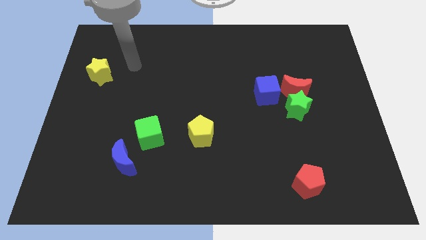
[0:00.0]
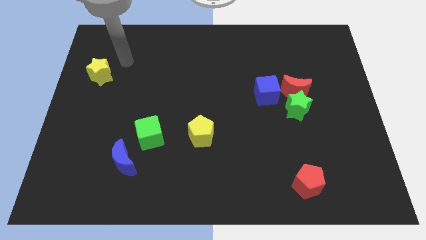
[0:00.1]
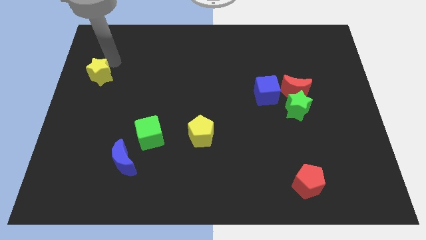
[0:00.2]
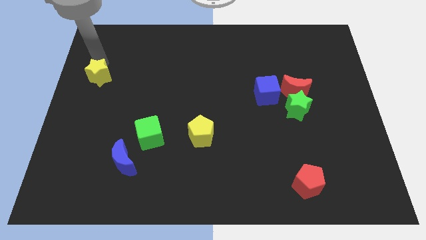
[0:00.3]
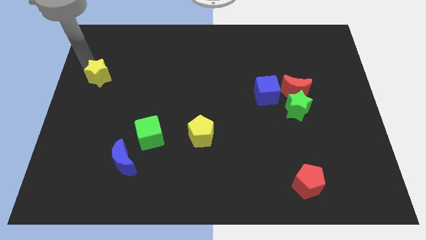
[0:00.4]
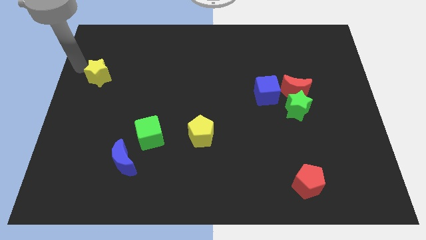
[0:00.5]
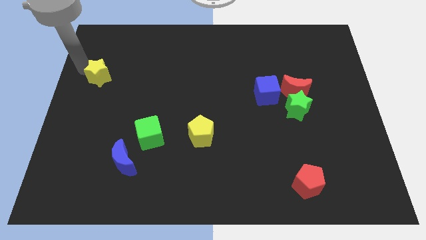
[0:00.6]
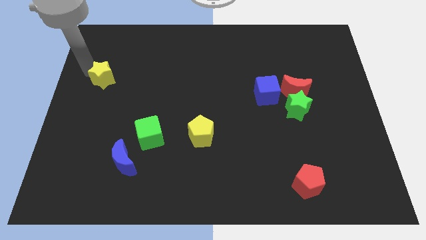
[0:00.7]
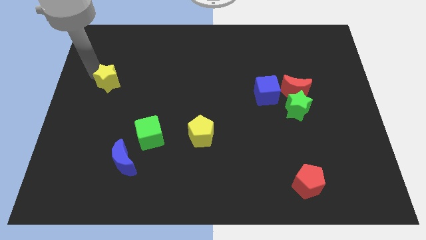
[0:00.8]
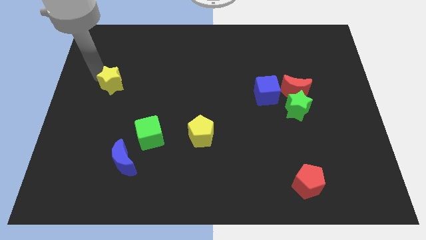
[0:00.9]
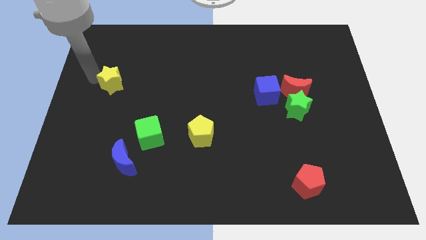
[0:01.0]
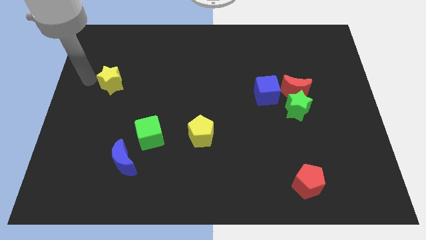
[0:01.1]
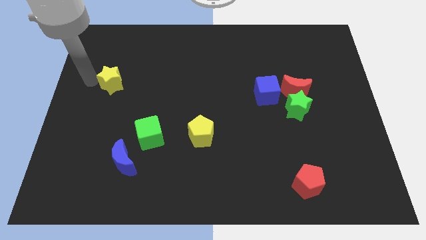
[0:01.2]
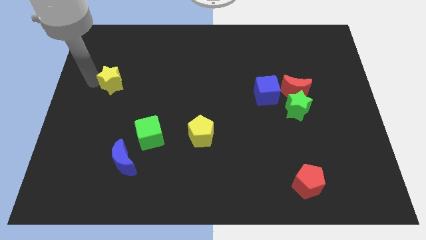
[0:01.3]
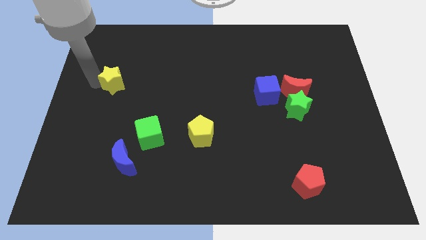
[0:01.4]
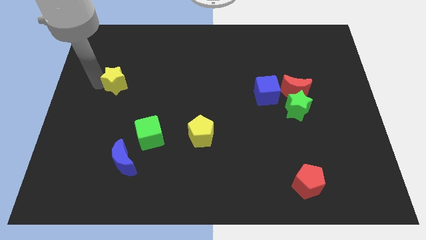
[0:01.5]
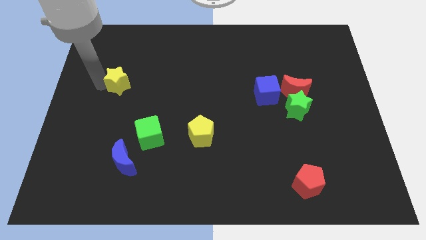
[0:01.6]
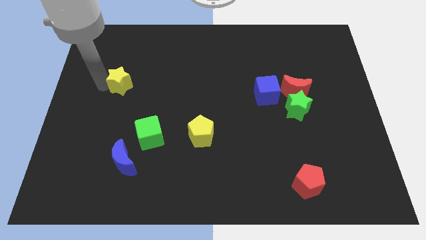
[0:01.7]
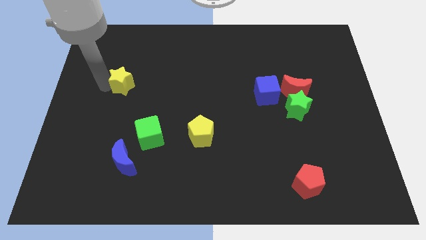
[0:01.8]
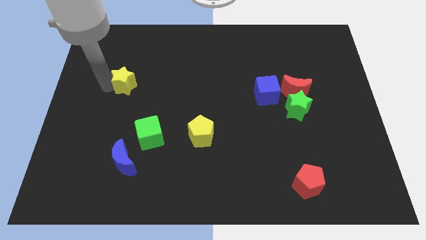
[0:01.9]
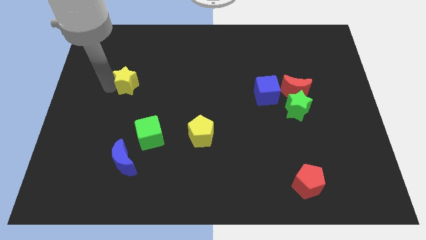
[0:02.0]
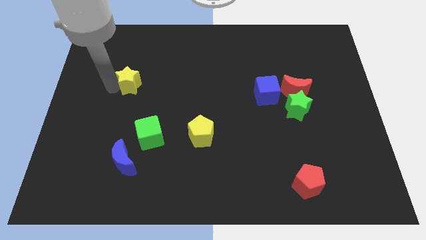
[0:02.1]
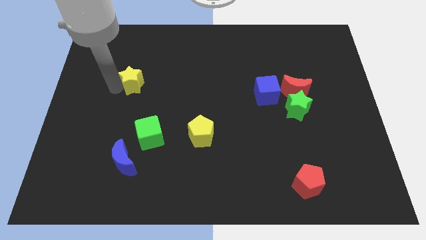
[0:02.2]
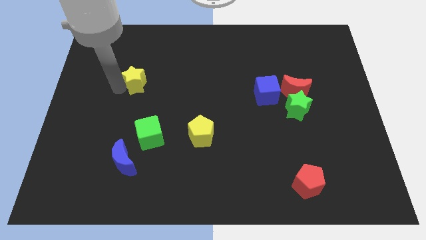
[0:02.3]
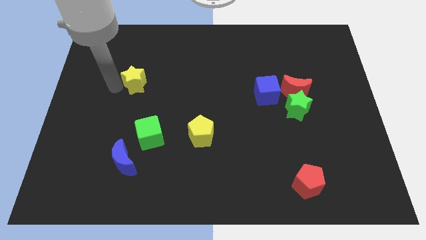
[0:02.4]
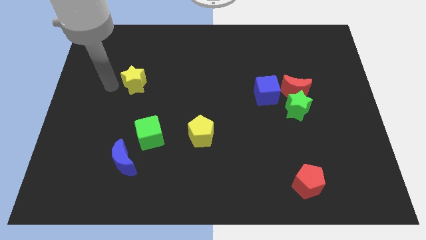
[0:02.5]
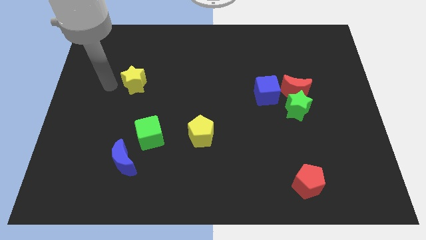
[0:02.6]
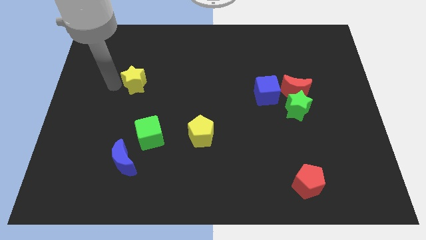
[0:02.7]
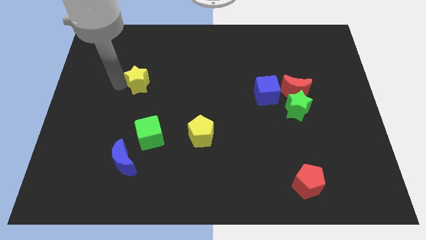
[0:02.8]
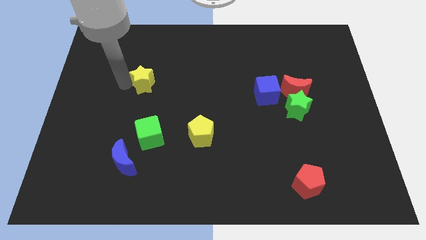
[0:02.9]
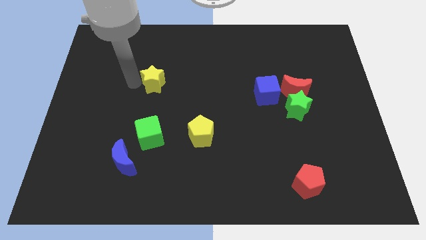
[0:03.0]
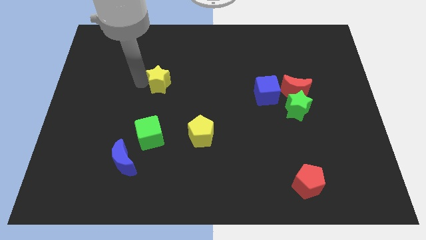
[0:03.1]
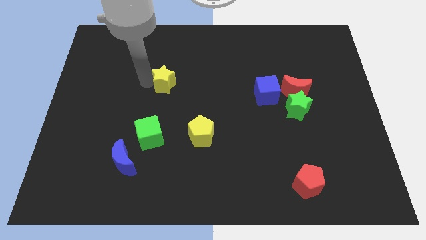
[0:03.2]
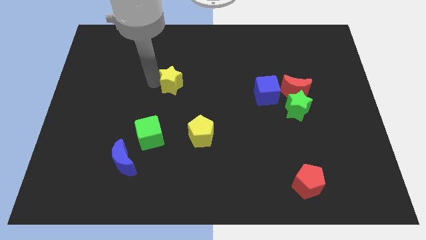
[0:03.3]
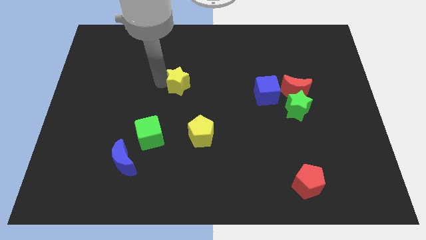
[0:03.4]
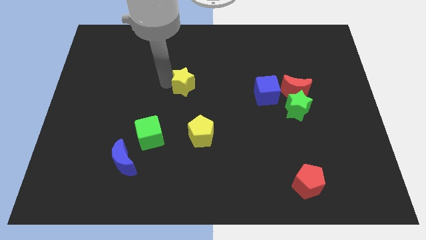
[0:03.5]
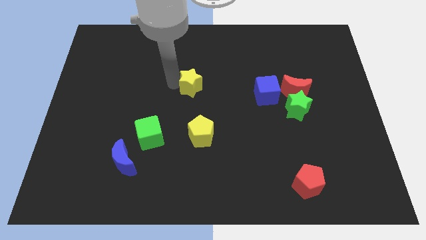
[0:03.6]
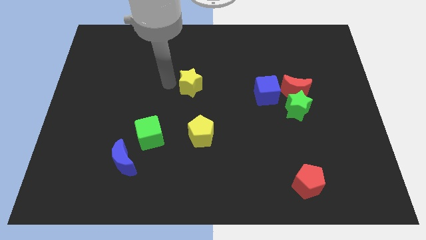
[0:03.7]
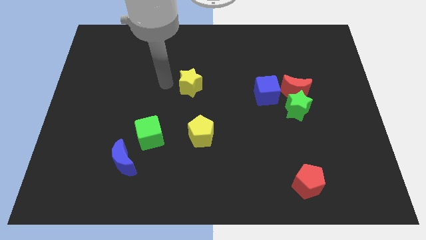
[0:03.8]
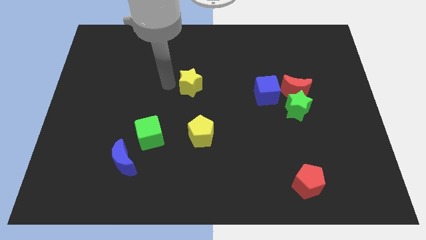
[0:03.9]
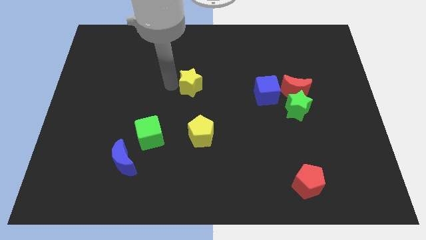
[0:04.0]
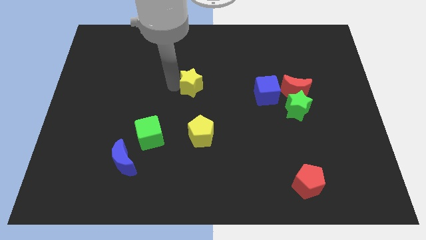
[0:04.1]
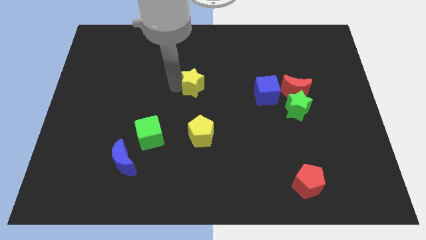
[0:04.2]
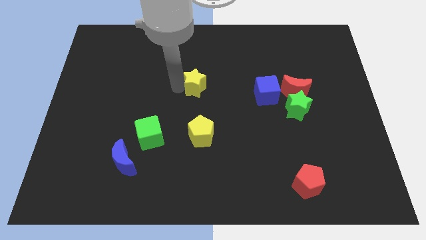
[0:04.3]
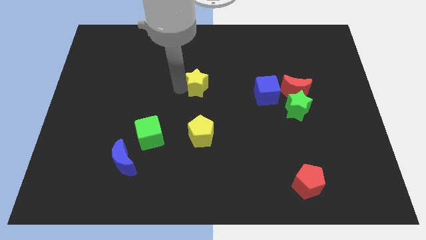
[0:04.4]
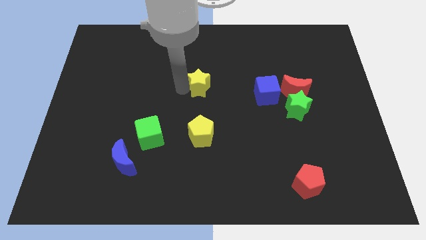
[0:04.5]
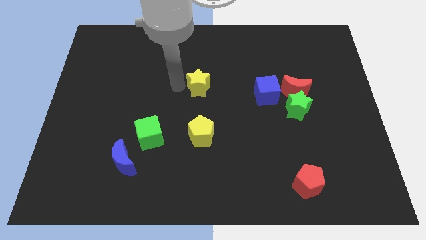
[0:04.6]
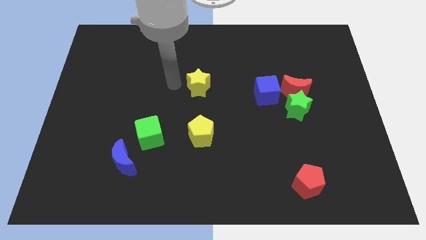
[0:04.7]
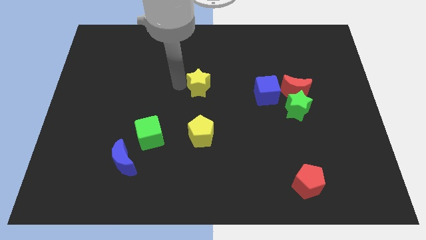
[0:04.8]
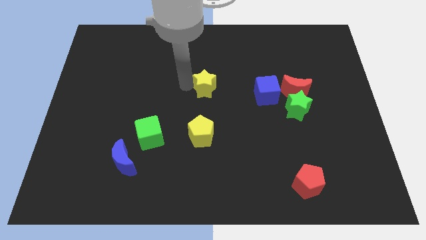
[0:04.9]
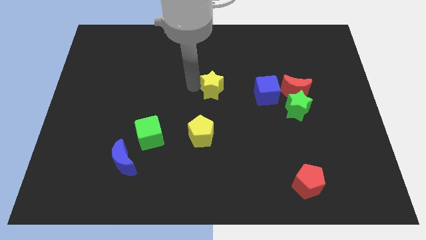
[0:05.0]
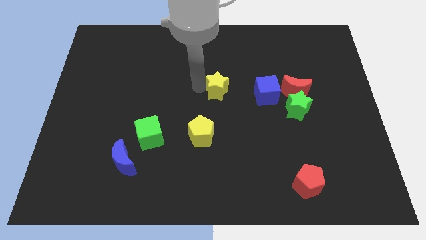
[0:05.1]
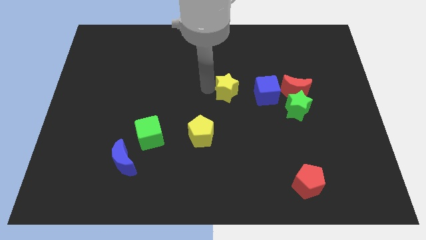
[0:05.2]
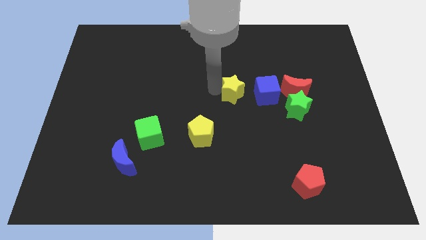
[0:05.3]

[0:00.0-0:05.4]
slide the yellow star left of the red moon

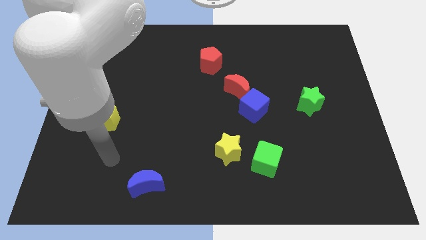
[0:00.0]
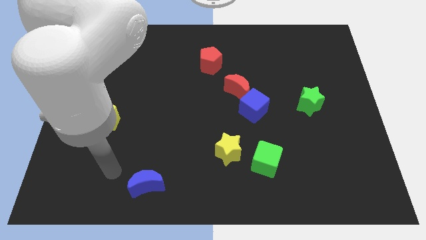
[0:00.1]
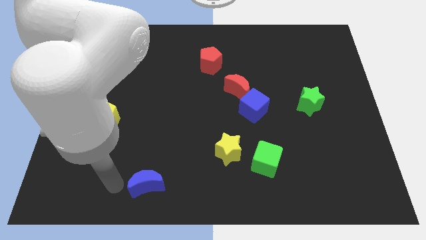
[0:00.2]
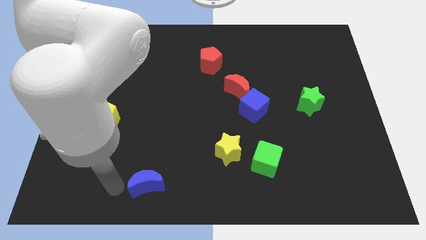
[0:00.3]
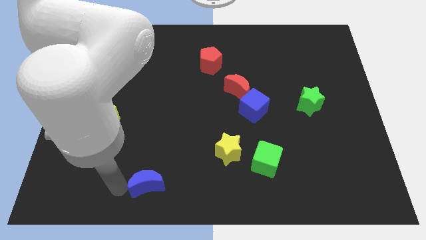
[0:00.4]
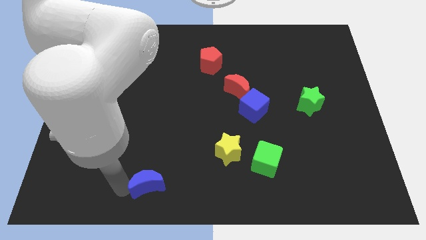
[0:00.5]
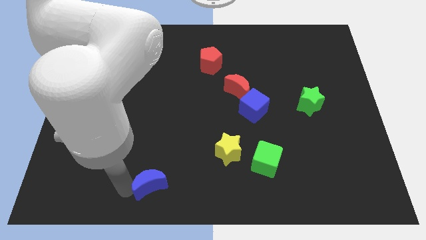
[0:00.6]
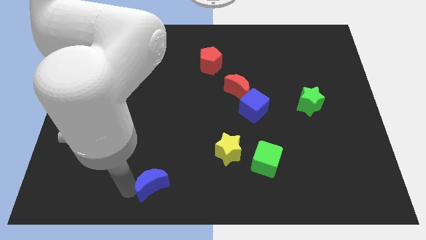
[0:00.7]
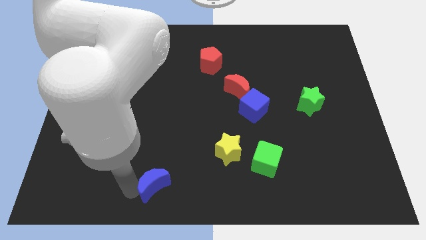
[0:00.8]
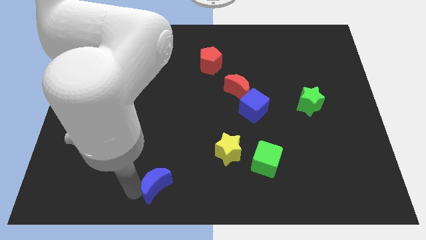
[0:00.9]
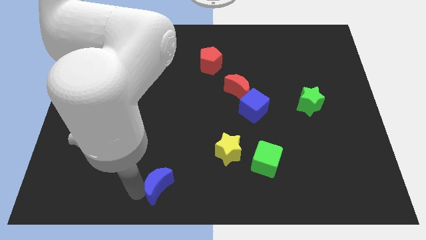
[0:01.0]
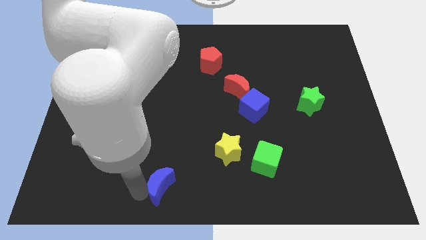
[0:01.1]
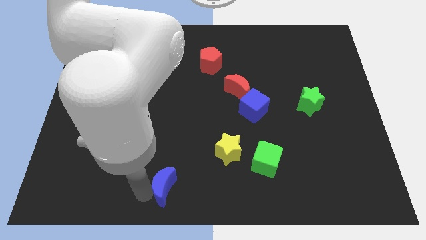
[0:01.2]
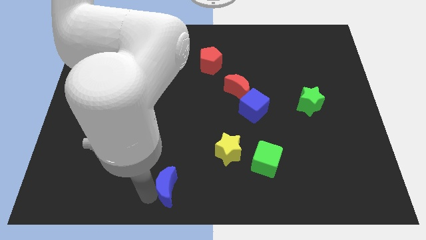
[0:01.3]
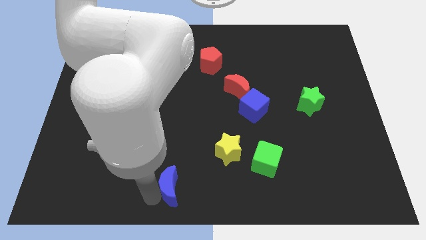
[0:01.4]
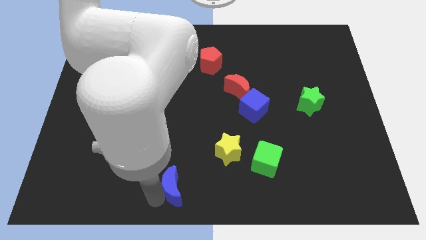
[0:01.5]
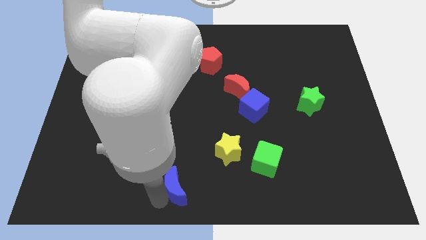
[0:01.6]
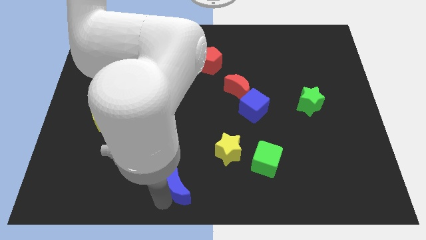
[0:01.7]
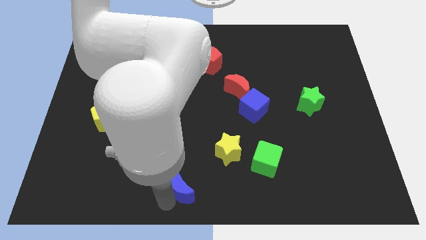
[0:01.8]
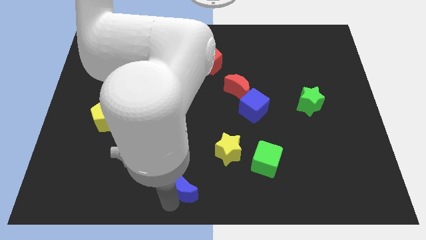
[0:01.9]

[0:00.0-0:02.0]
push the blue moon to the bottom left of the yellow star
